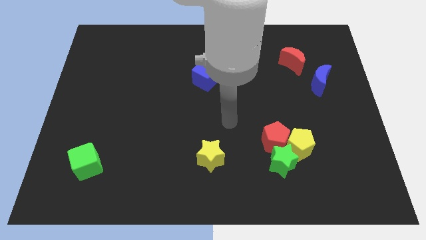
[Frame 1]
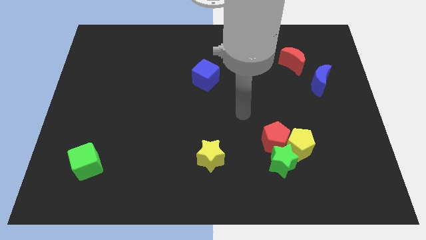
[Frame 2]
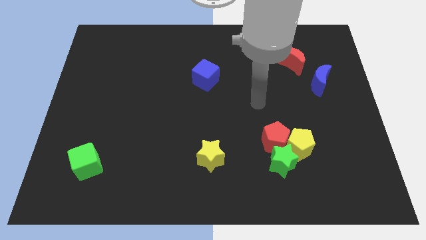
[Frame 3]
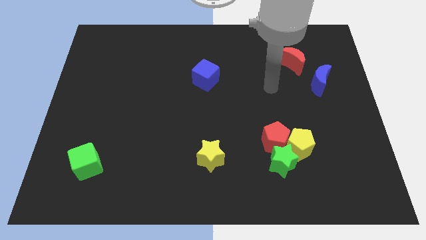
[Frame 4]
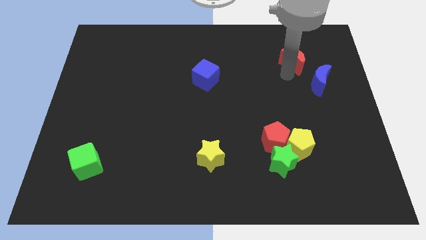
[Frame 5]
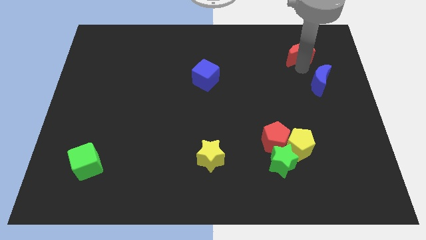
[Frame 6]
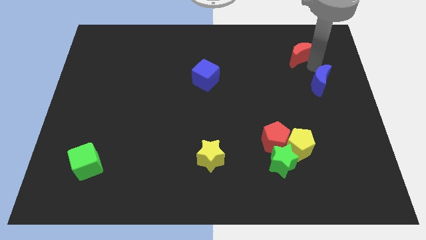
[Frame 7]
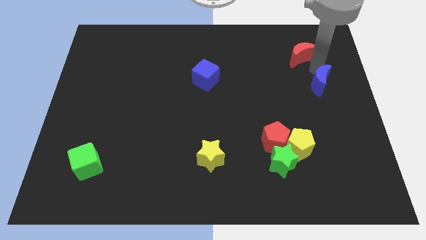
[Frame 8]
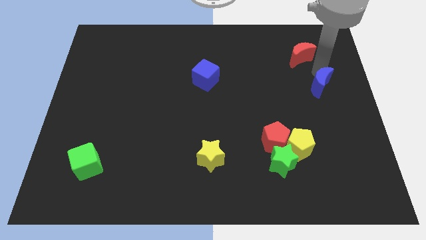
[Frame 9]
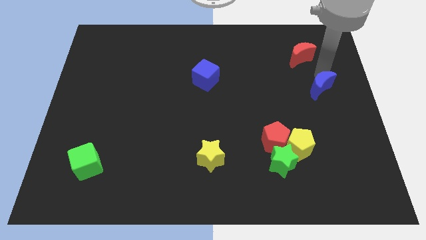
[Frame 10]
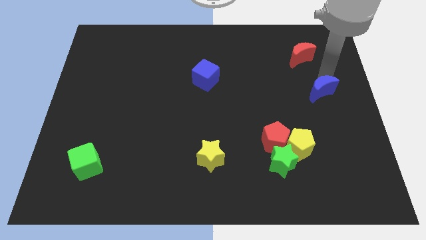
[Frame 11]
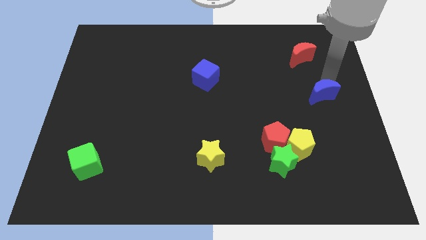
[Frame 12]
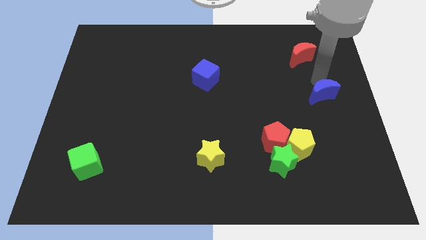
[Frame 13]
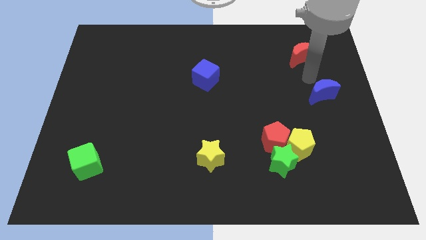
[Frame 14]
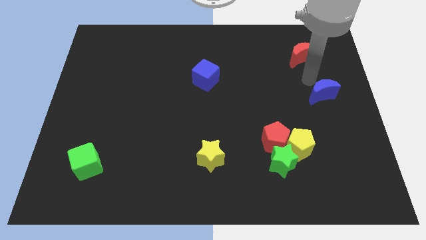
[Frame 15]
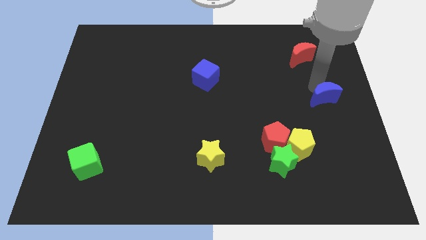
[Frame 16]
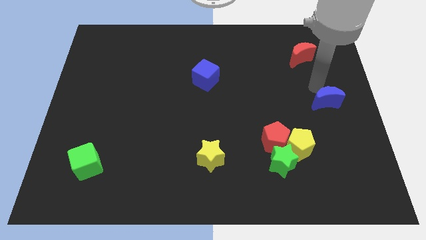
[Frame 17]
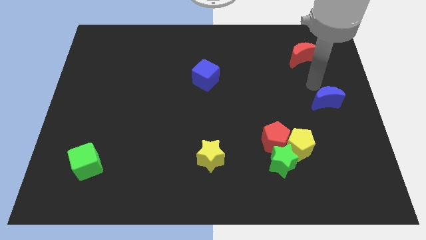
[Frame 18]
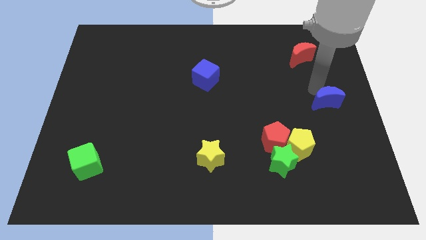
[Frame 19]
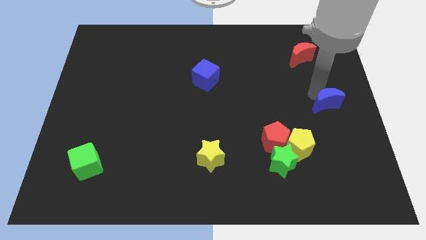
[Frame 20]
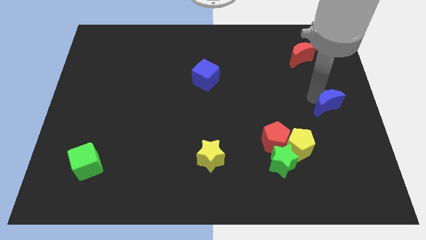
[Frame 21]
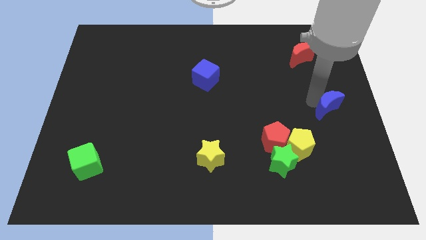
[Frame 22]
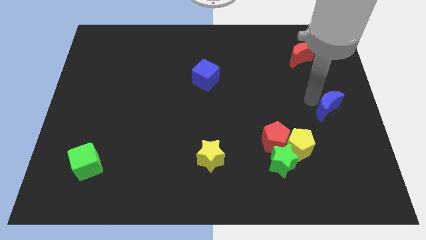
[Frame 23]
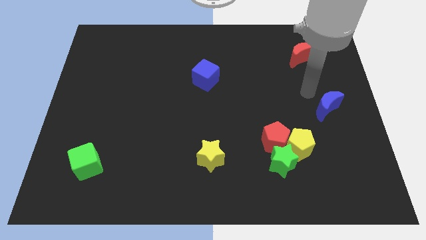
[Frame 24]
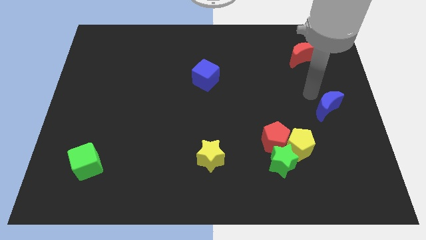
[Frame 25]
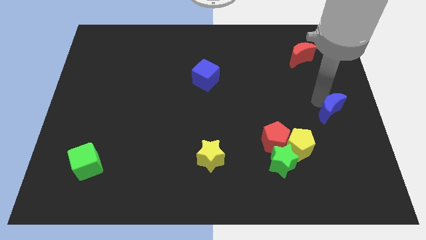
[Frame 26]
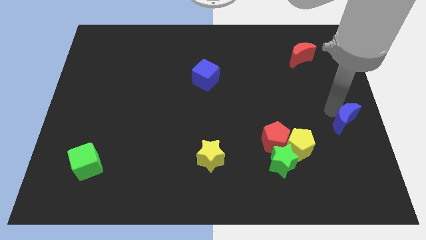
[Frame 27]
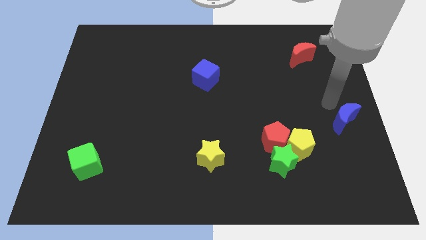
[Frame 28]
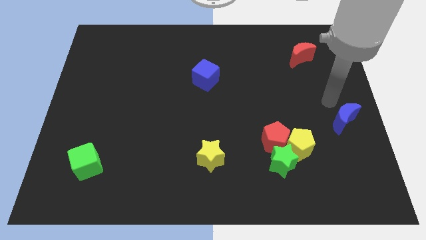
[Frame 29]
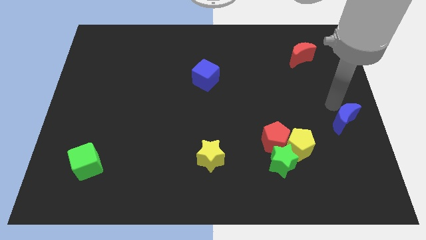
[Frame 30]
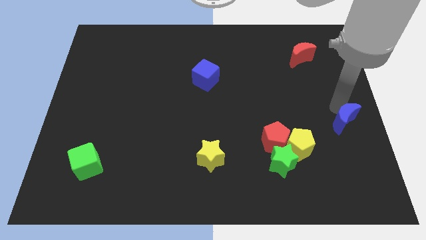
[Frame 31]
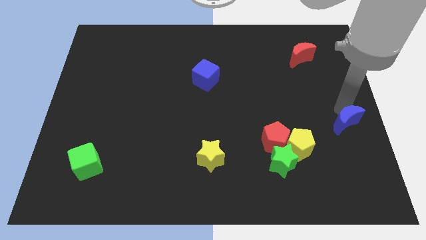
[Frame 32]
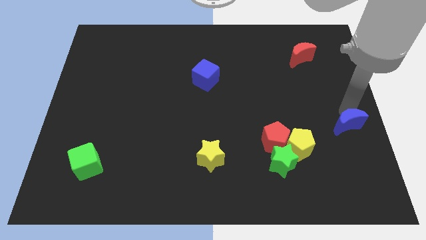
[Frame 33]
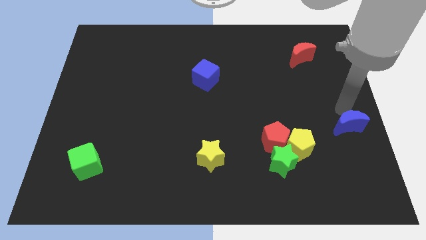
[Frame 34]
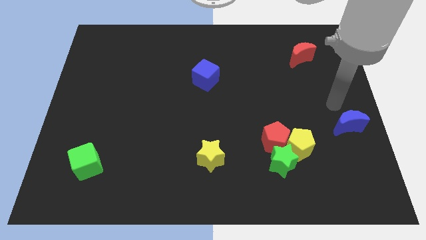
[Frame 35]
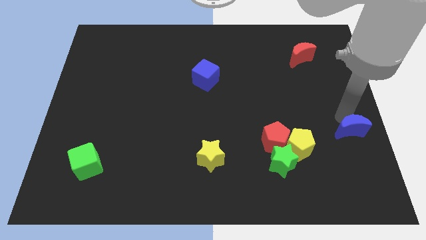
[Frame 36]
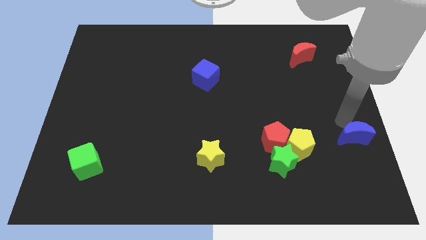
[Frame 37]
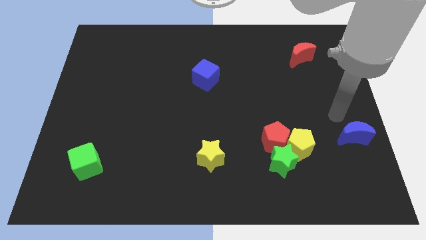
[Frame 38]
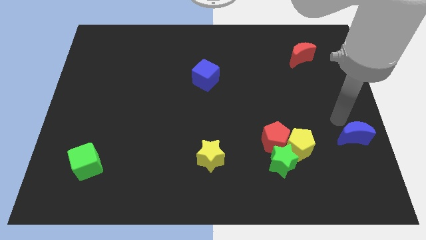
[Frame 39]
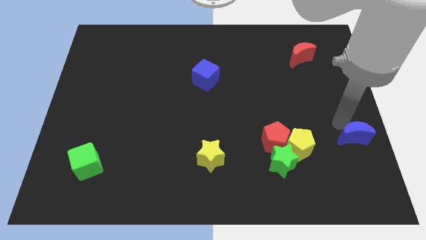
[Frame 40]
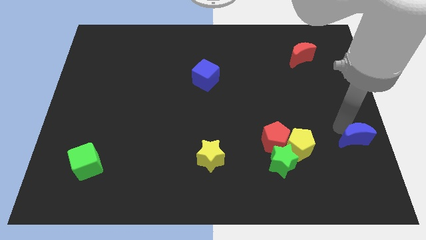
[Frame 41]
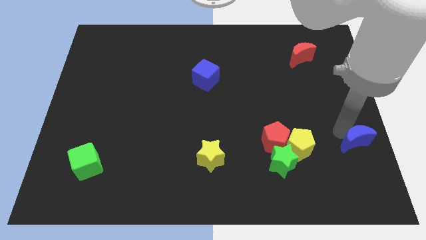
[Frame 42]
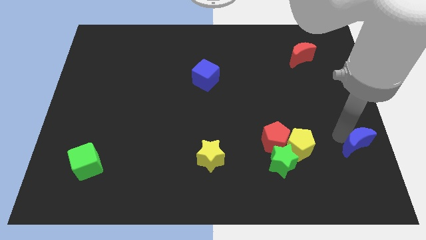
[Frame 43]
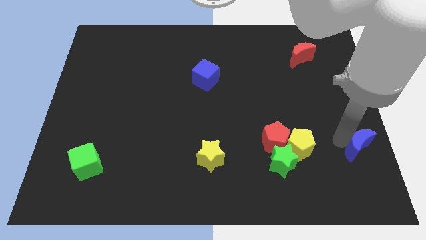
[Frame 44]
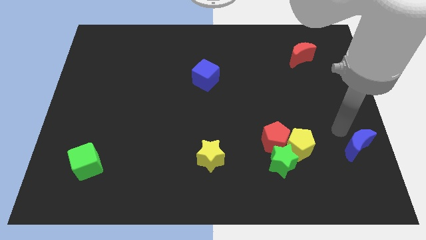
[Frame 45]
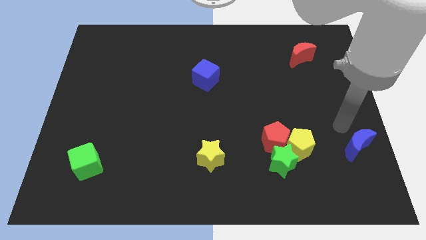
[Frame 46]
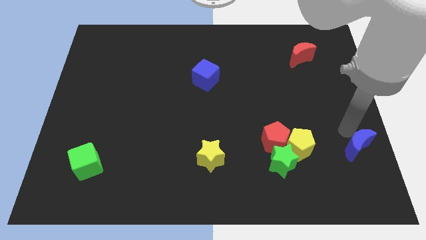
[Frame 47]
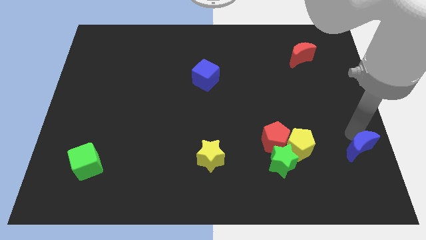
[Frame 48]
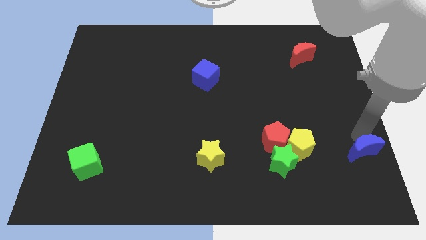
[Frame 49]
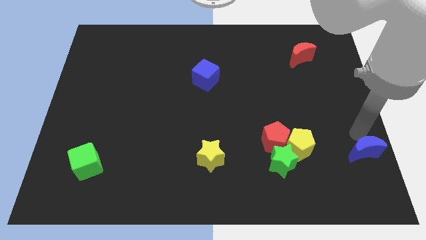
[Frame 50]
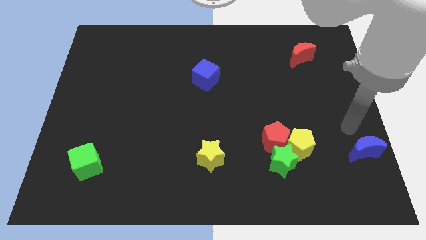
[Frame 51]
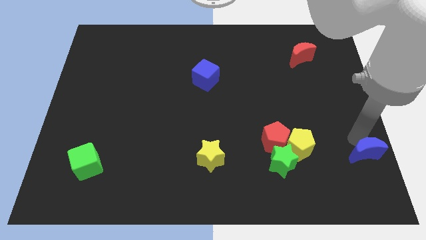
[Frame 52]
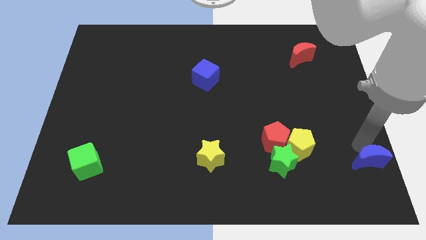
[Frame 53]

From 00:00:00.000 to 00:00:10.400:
move the blue moon to the bottom right
